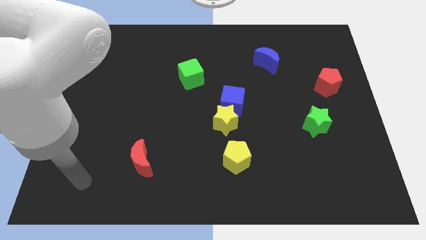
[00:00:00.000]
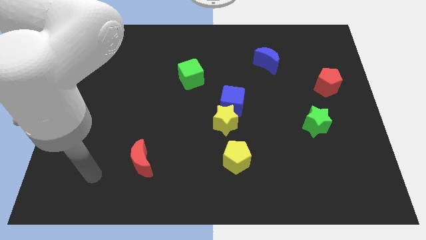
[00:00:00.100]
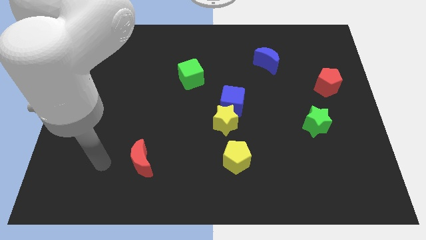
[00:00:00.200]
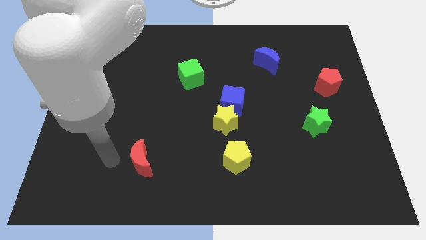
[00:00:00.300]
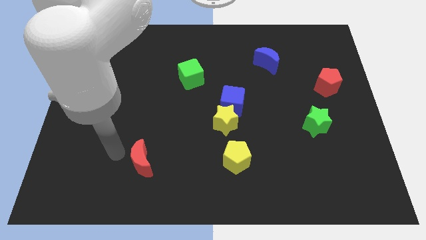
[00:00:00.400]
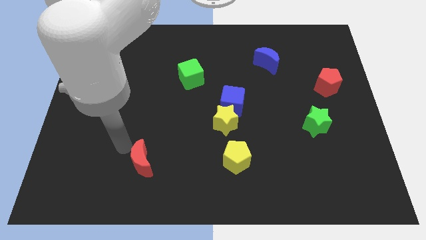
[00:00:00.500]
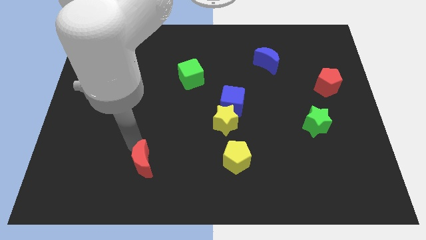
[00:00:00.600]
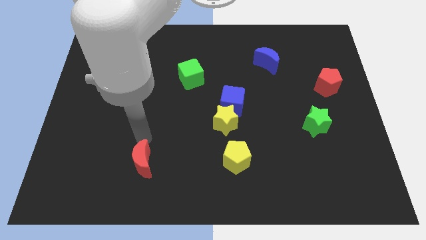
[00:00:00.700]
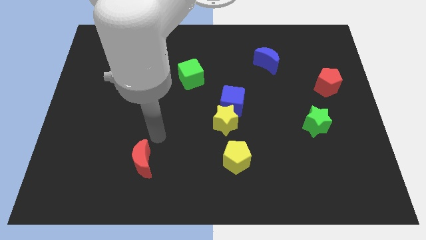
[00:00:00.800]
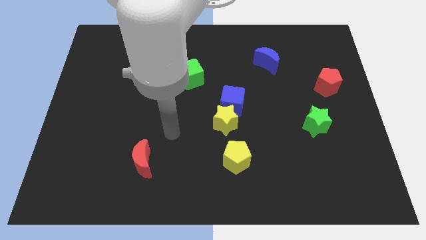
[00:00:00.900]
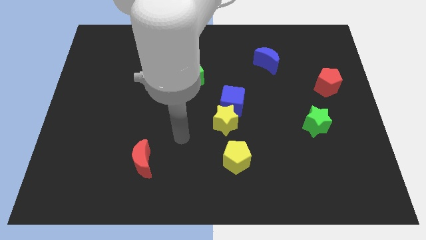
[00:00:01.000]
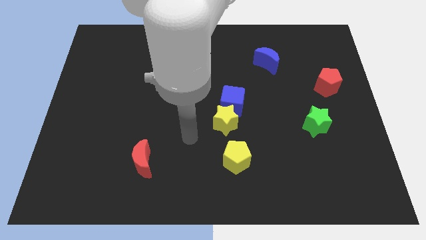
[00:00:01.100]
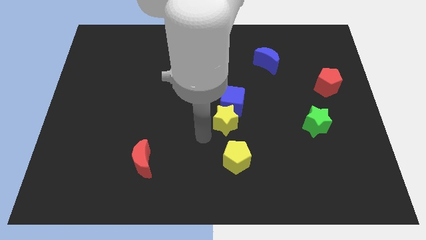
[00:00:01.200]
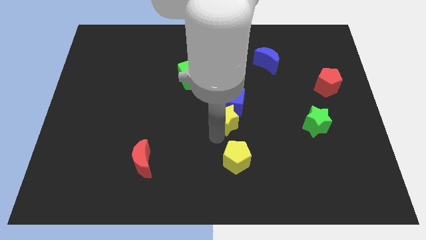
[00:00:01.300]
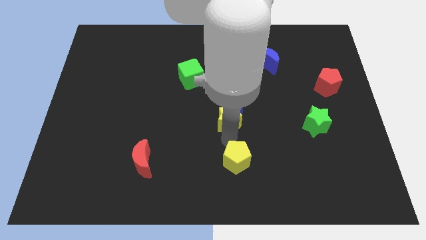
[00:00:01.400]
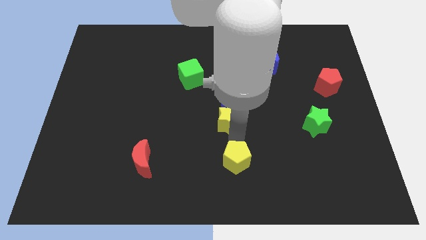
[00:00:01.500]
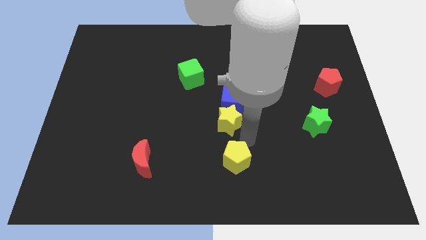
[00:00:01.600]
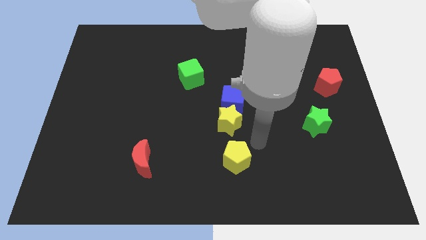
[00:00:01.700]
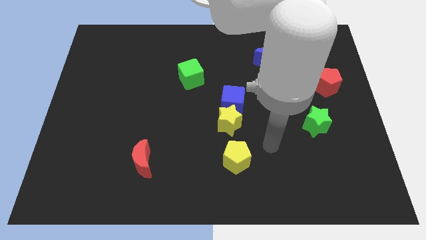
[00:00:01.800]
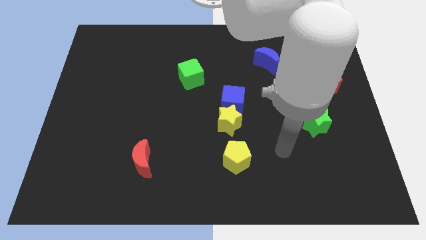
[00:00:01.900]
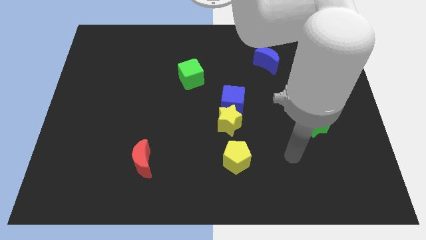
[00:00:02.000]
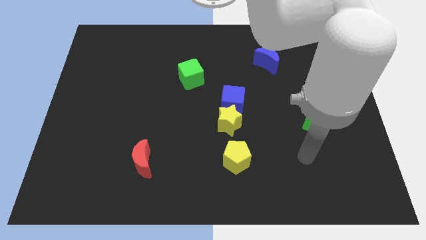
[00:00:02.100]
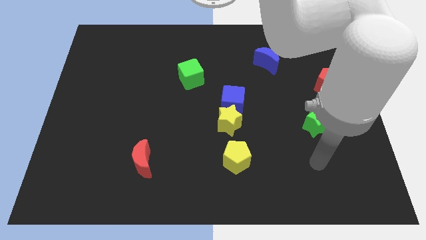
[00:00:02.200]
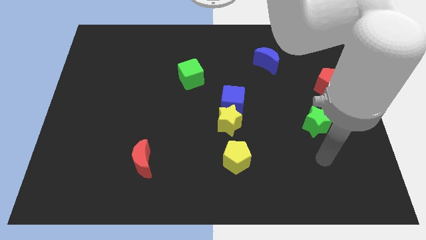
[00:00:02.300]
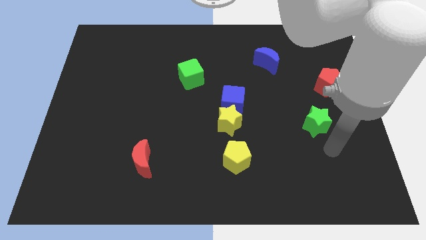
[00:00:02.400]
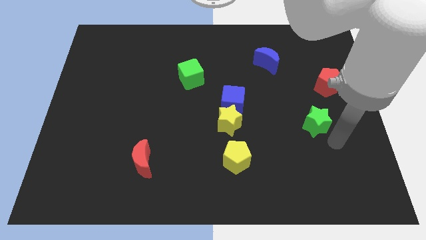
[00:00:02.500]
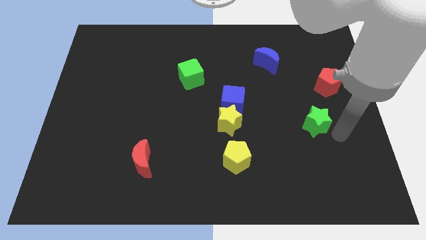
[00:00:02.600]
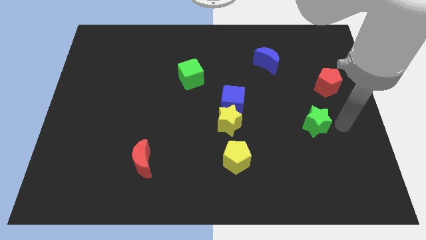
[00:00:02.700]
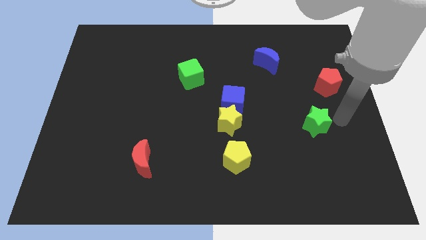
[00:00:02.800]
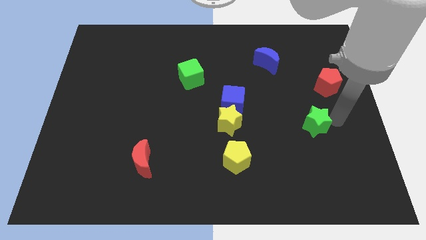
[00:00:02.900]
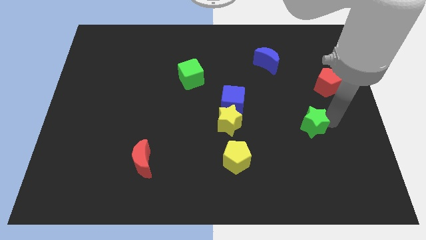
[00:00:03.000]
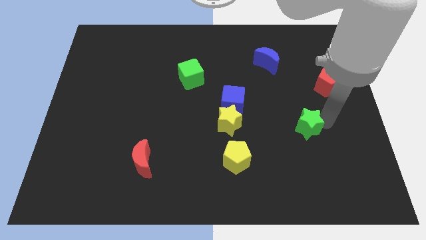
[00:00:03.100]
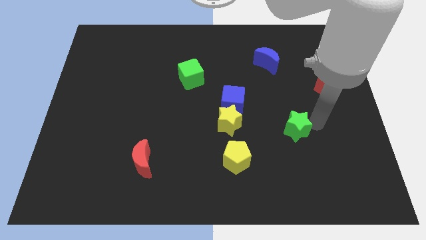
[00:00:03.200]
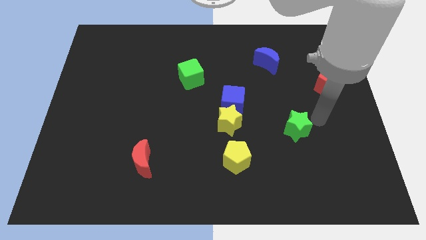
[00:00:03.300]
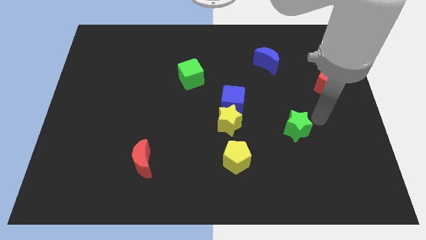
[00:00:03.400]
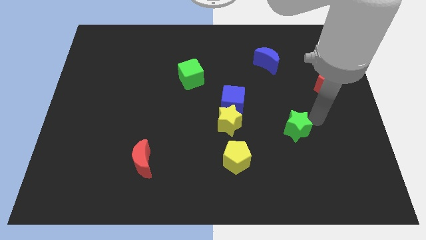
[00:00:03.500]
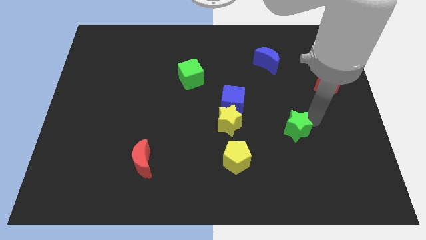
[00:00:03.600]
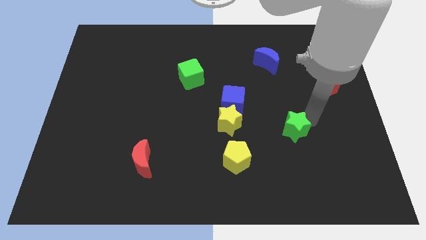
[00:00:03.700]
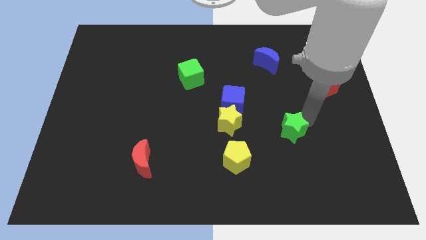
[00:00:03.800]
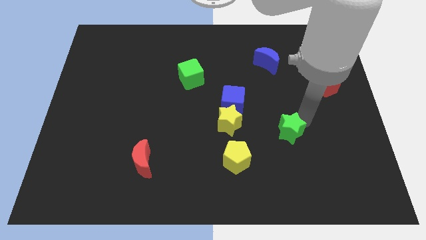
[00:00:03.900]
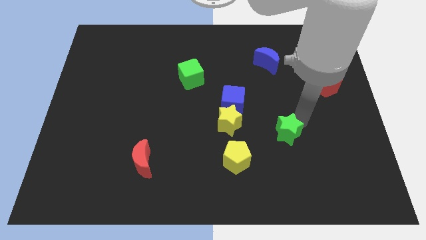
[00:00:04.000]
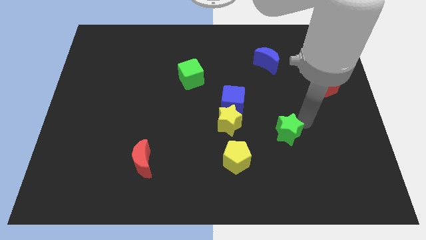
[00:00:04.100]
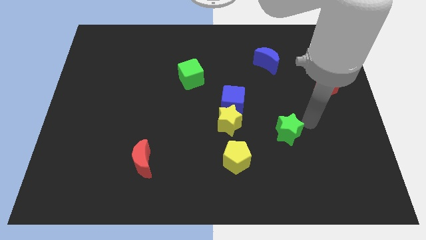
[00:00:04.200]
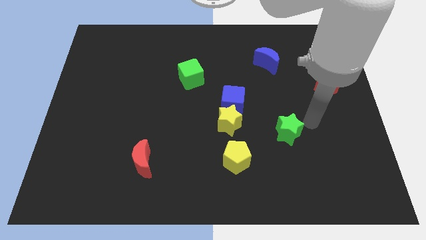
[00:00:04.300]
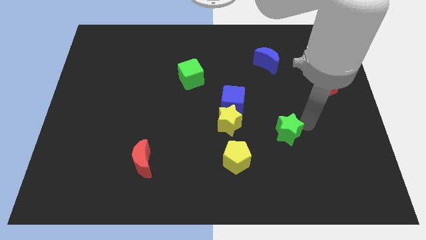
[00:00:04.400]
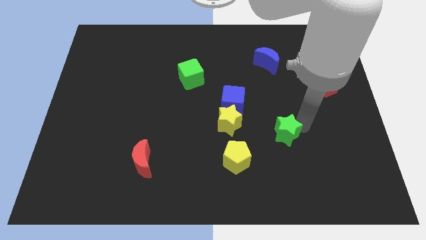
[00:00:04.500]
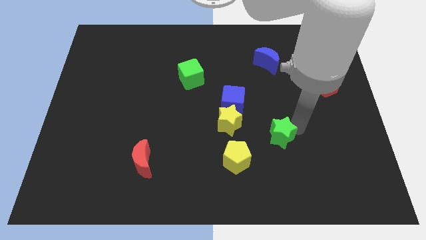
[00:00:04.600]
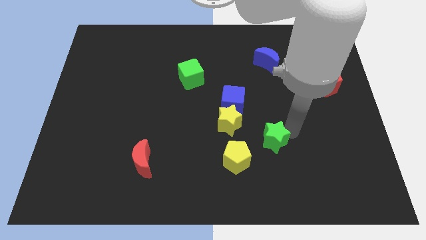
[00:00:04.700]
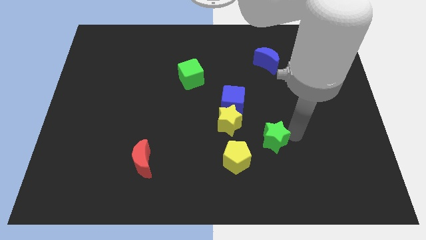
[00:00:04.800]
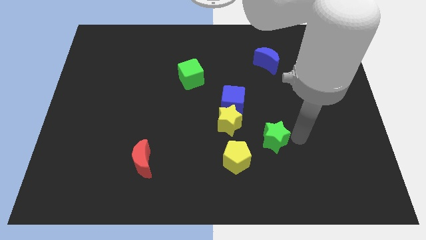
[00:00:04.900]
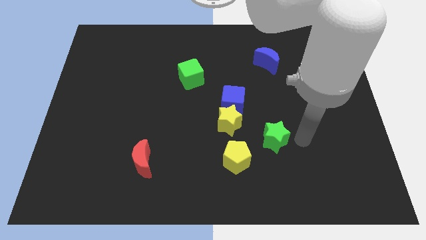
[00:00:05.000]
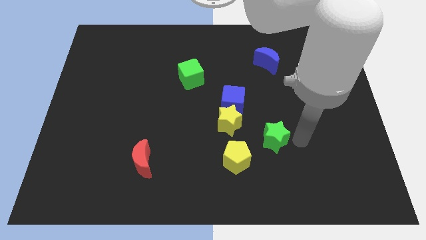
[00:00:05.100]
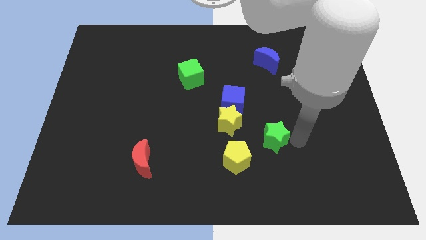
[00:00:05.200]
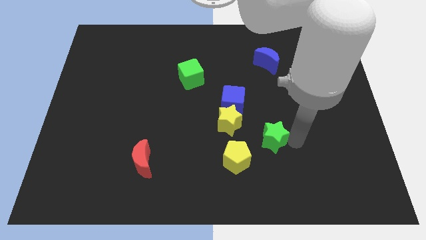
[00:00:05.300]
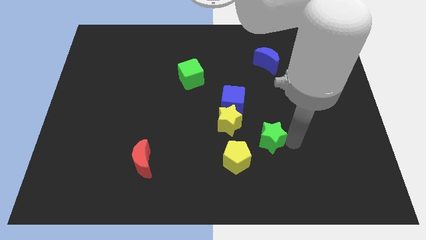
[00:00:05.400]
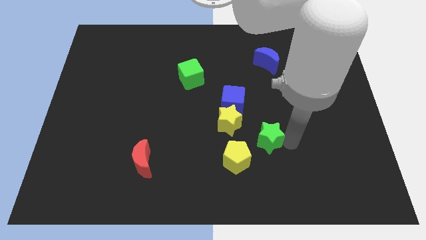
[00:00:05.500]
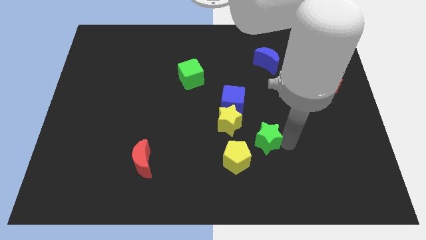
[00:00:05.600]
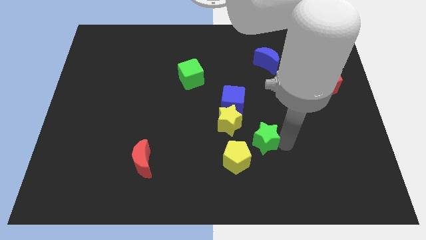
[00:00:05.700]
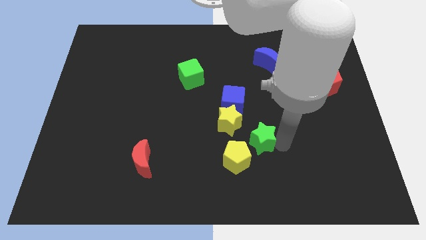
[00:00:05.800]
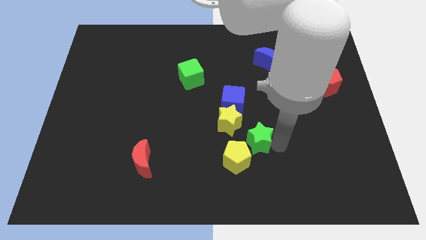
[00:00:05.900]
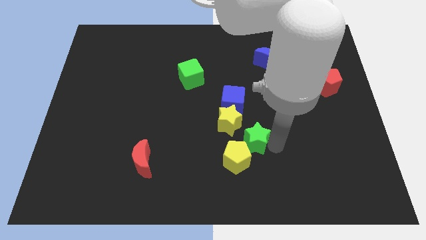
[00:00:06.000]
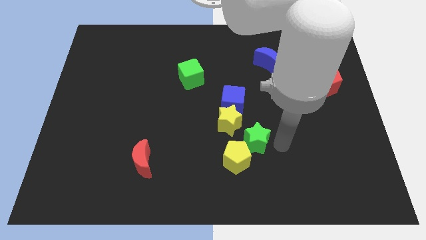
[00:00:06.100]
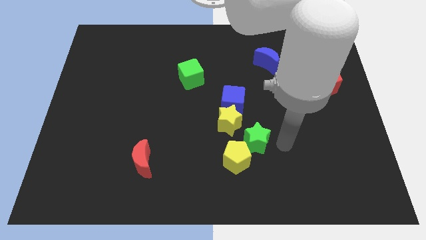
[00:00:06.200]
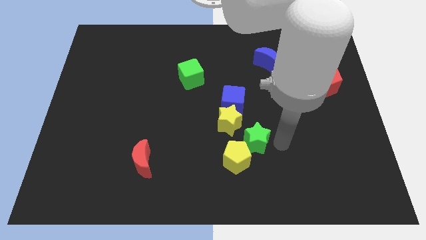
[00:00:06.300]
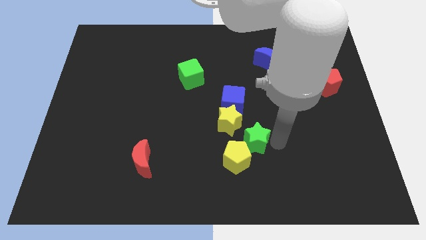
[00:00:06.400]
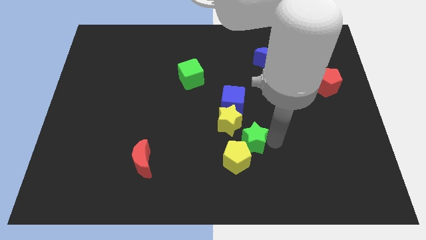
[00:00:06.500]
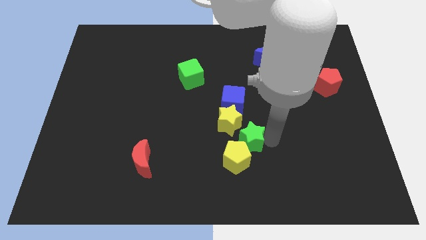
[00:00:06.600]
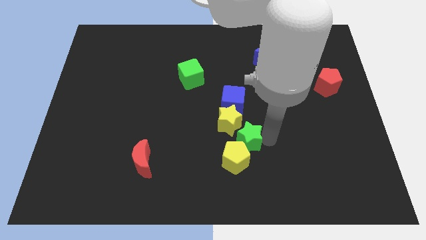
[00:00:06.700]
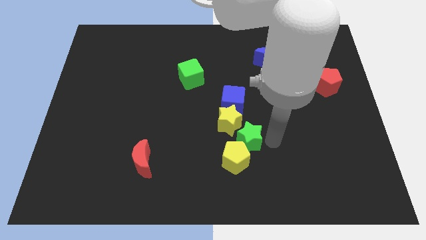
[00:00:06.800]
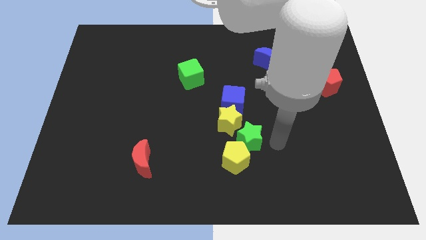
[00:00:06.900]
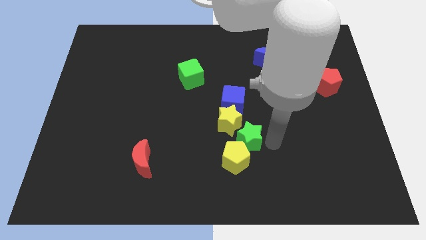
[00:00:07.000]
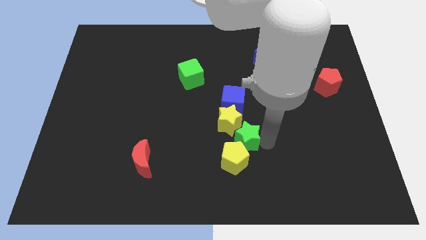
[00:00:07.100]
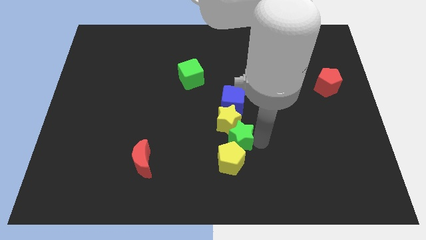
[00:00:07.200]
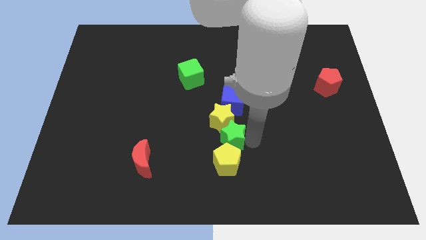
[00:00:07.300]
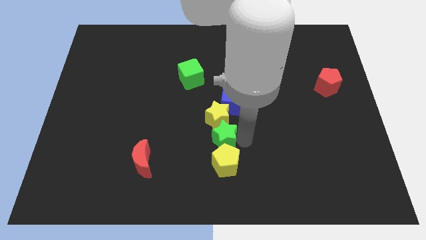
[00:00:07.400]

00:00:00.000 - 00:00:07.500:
push the green star left

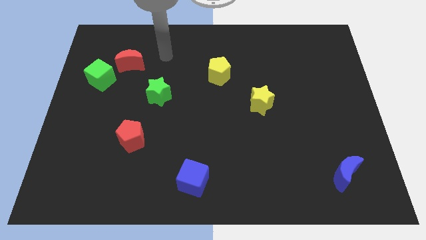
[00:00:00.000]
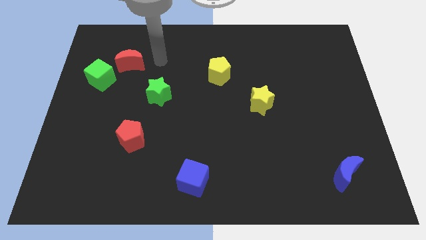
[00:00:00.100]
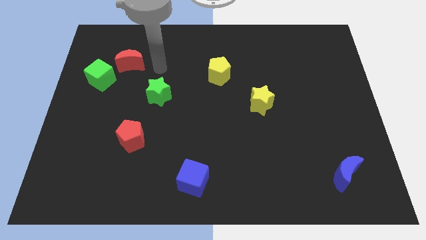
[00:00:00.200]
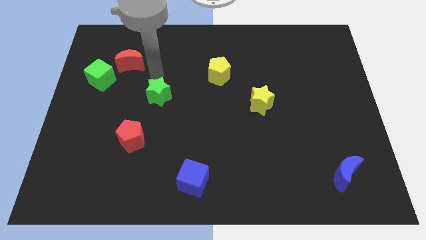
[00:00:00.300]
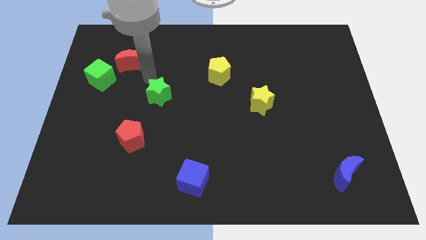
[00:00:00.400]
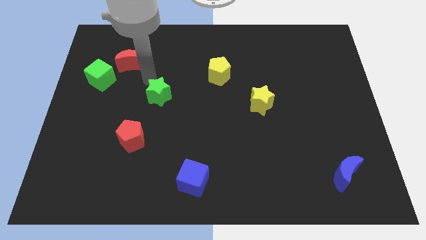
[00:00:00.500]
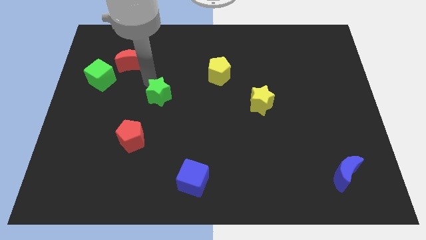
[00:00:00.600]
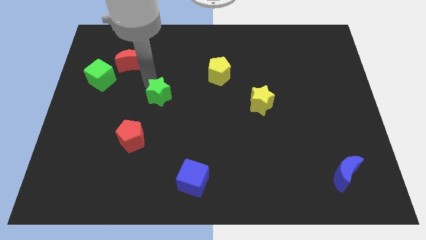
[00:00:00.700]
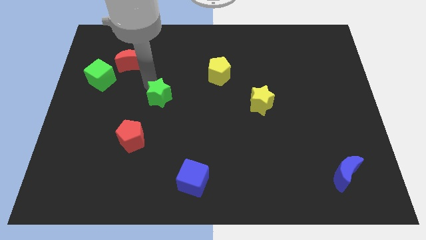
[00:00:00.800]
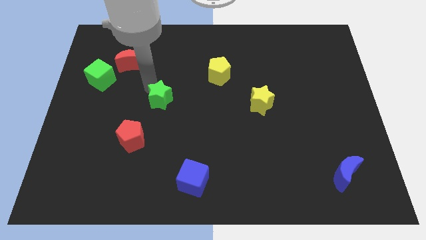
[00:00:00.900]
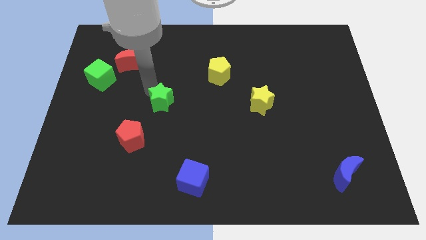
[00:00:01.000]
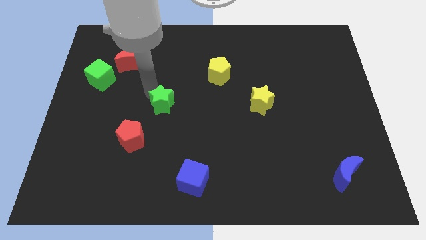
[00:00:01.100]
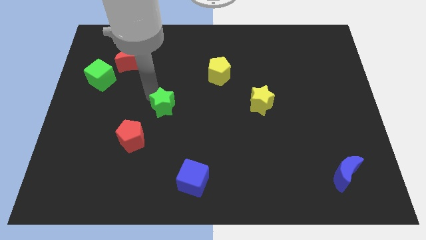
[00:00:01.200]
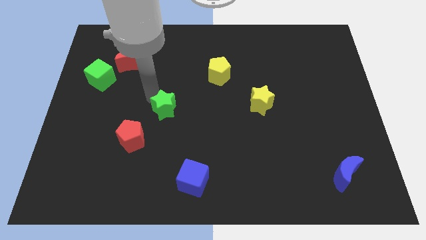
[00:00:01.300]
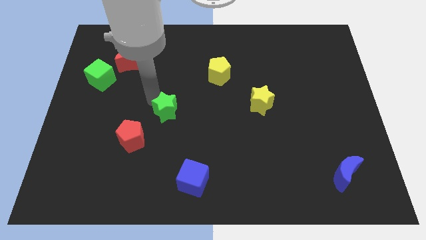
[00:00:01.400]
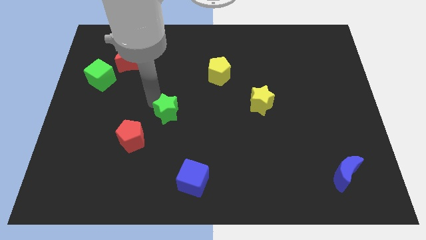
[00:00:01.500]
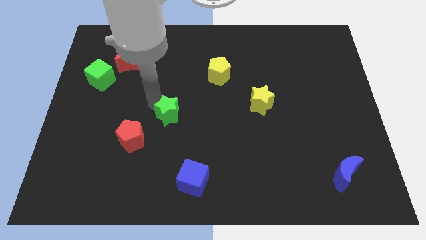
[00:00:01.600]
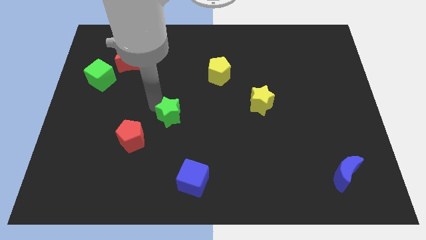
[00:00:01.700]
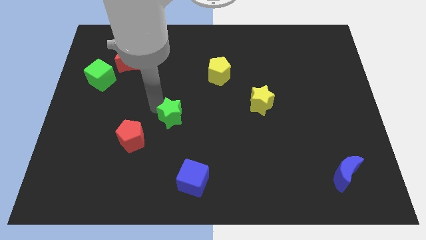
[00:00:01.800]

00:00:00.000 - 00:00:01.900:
push the green star somewhat down and then to the right
